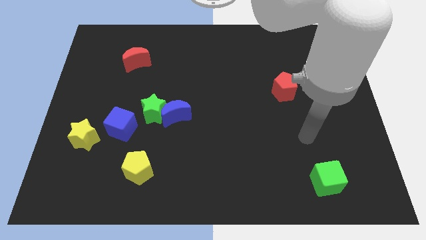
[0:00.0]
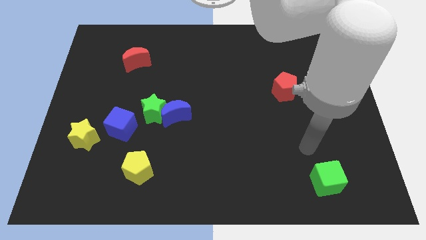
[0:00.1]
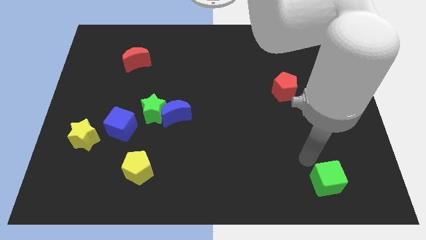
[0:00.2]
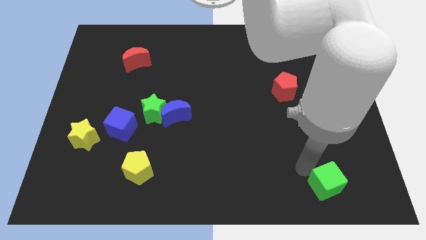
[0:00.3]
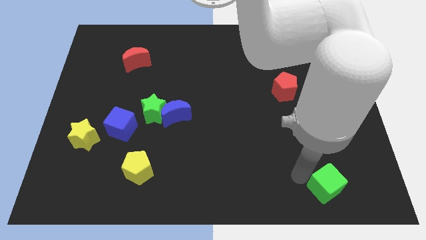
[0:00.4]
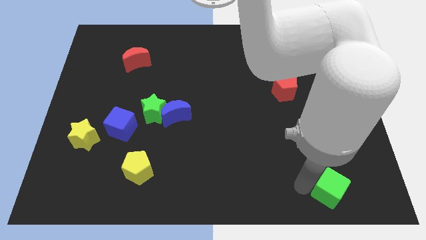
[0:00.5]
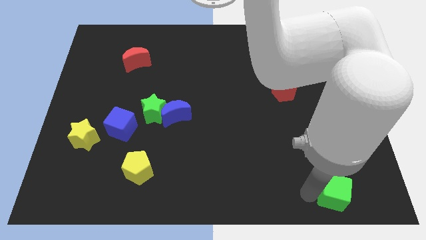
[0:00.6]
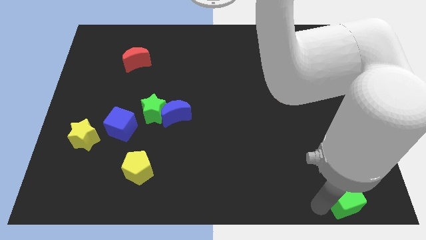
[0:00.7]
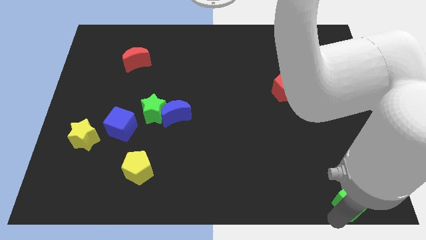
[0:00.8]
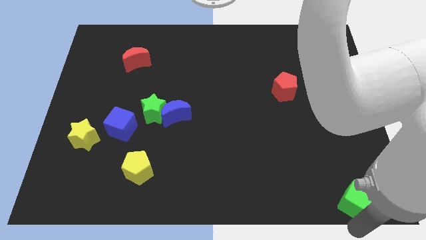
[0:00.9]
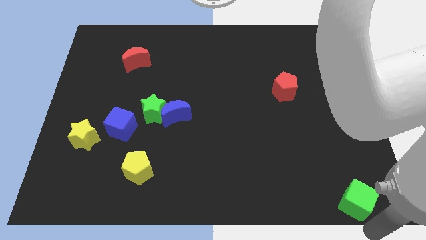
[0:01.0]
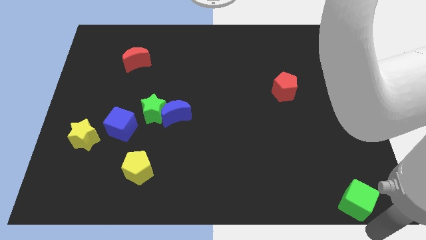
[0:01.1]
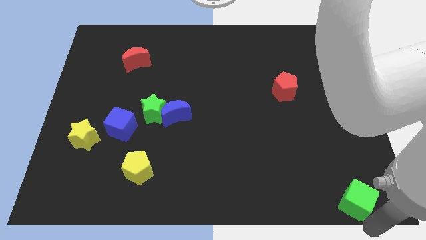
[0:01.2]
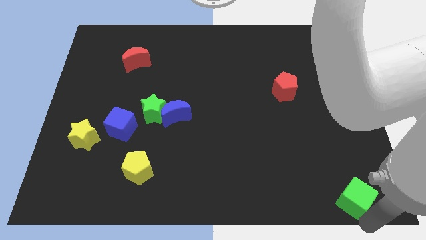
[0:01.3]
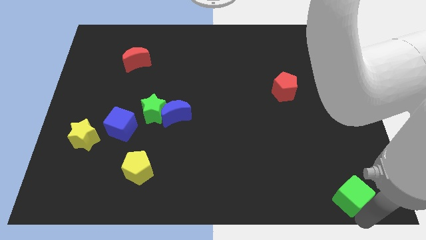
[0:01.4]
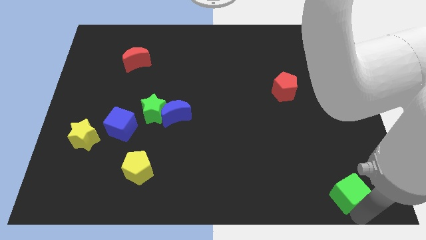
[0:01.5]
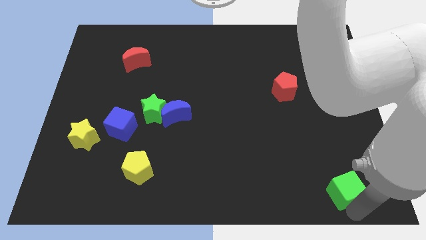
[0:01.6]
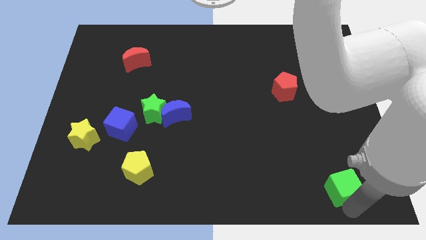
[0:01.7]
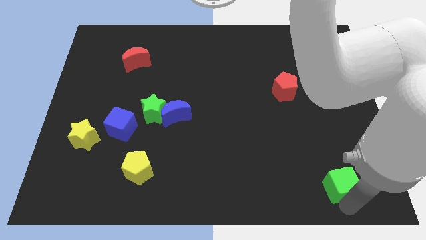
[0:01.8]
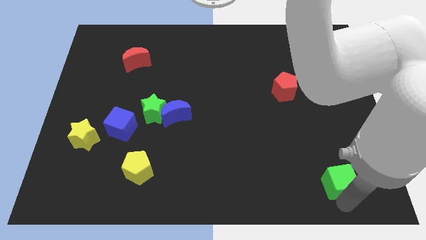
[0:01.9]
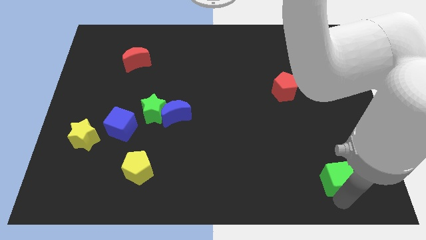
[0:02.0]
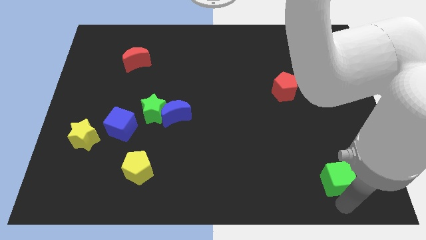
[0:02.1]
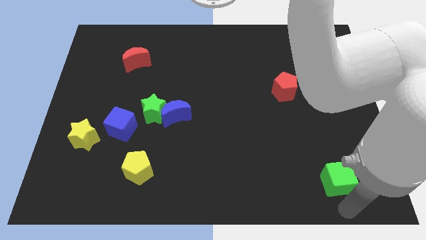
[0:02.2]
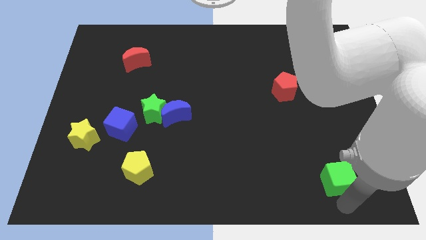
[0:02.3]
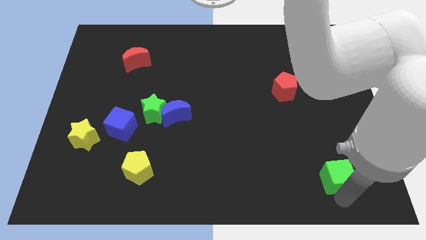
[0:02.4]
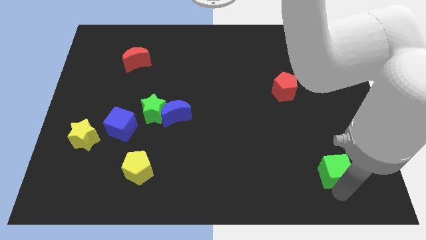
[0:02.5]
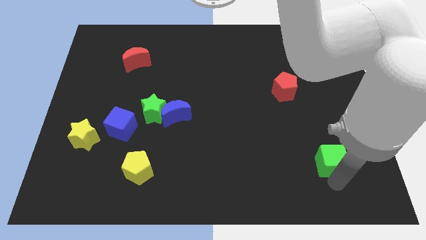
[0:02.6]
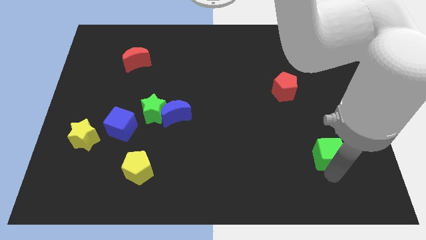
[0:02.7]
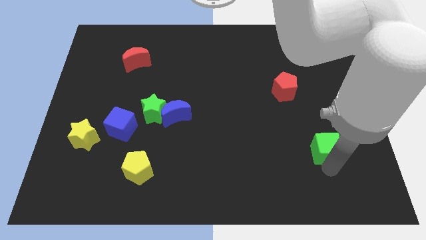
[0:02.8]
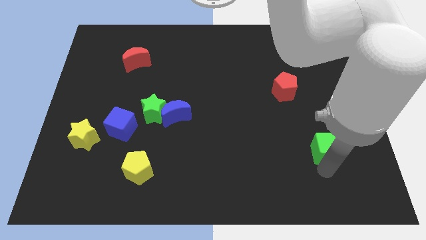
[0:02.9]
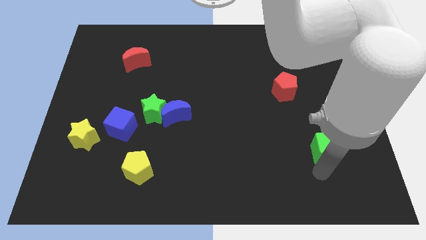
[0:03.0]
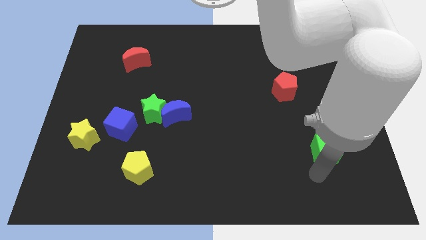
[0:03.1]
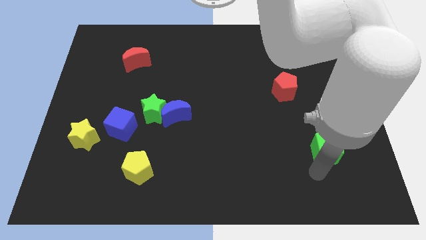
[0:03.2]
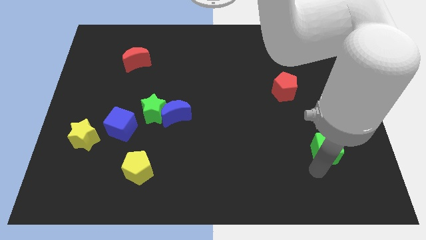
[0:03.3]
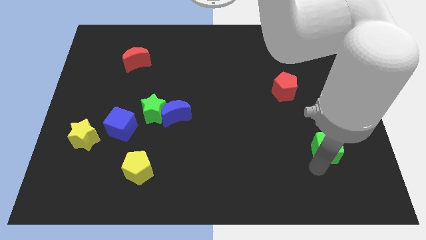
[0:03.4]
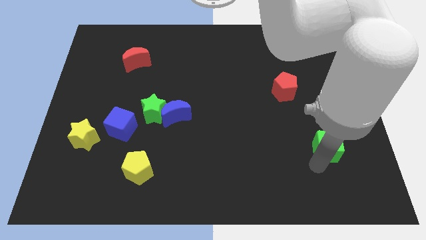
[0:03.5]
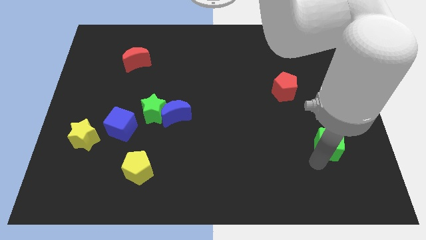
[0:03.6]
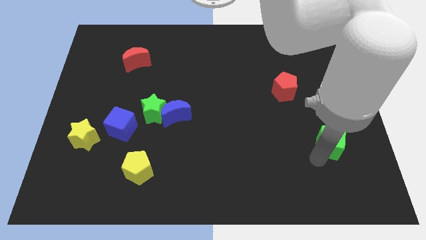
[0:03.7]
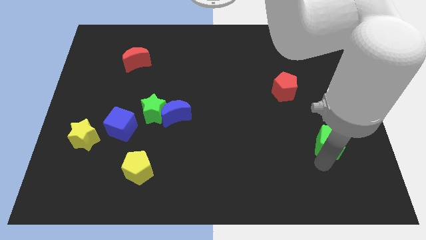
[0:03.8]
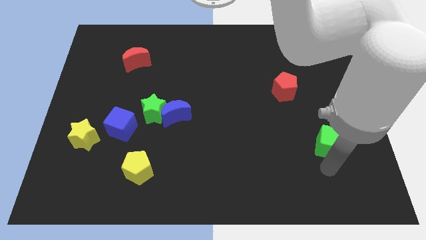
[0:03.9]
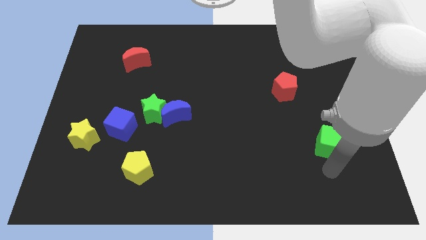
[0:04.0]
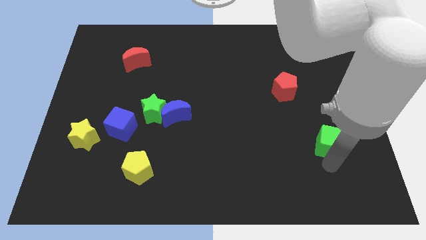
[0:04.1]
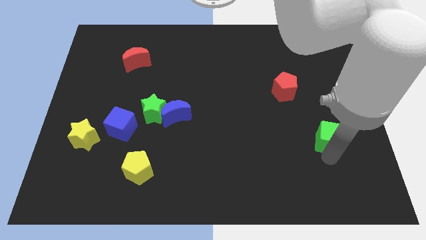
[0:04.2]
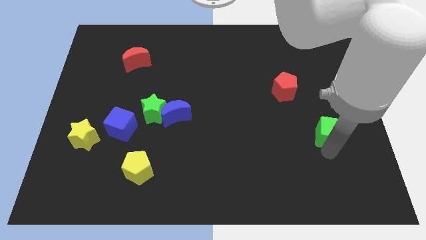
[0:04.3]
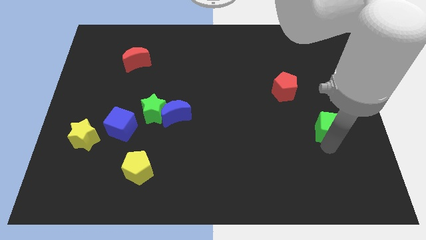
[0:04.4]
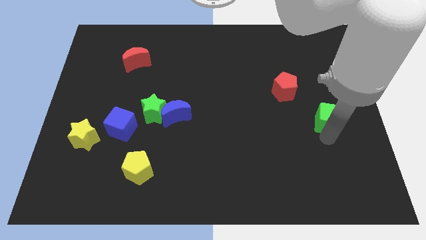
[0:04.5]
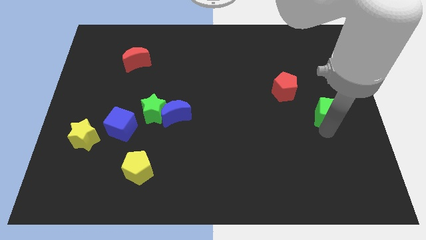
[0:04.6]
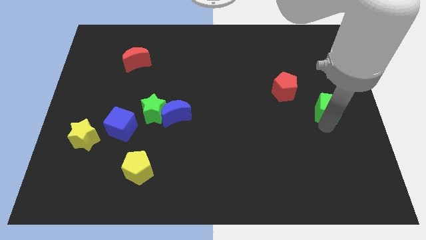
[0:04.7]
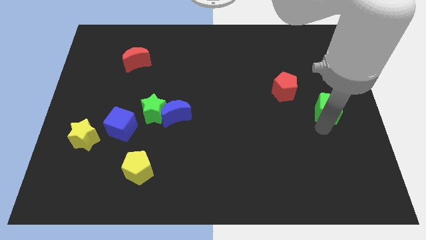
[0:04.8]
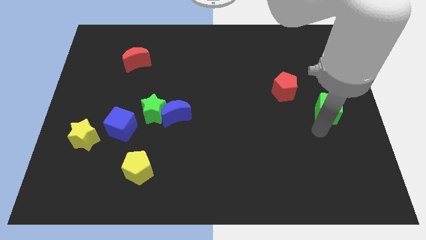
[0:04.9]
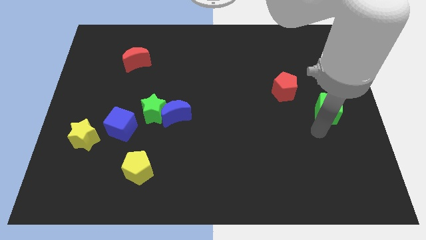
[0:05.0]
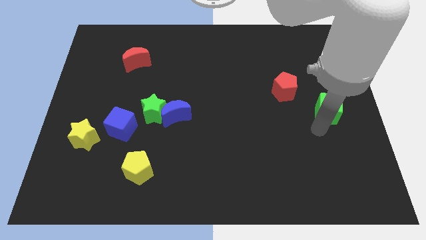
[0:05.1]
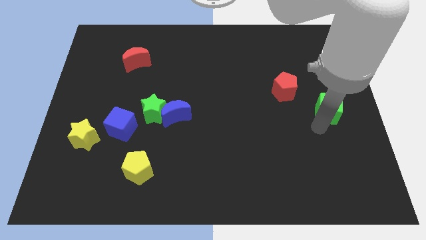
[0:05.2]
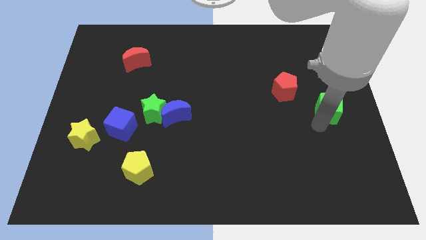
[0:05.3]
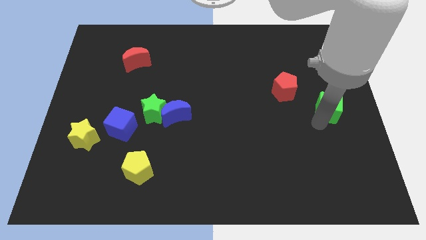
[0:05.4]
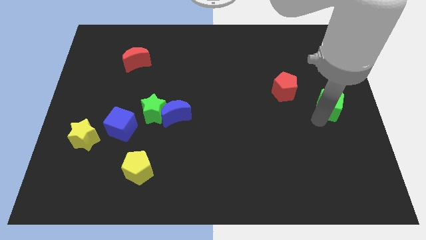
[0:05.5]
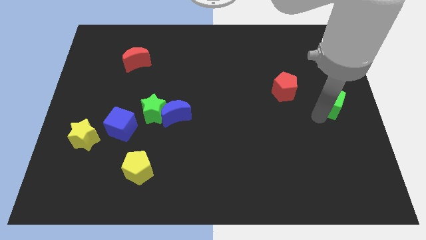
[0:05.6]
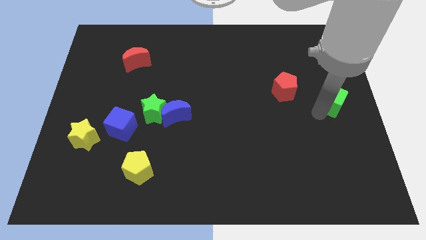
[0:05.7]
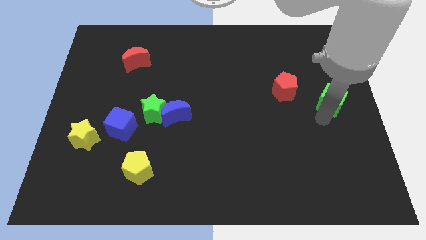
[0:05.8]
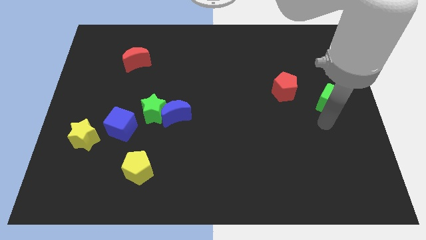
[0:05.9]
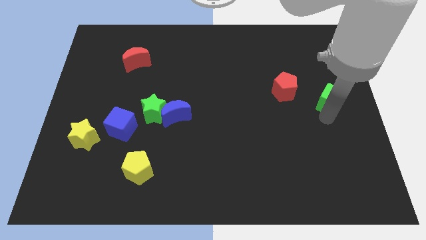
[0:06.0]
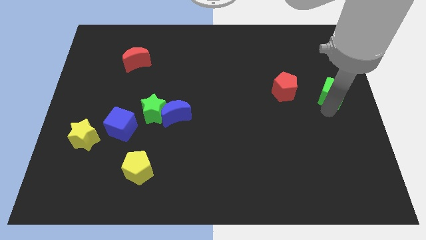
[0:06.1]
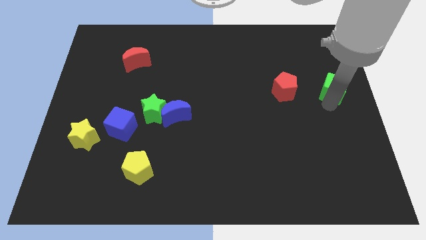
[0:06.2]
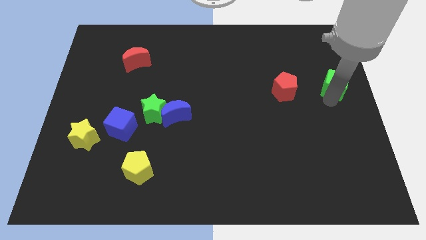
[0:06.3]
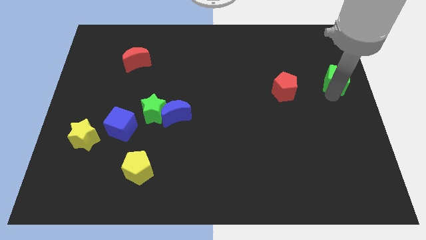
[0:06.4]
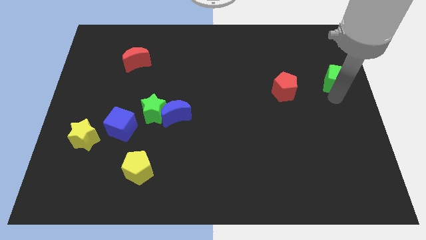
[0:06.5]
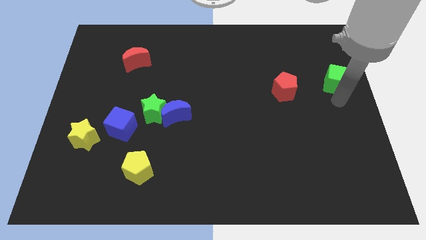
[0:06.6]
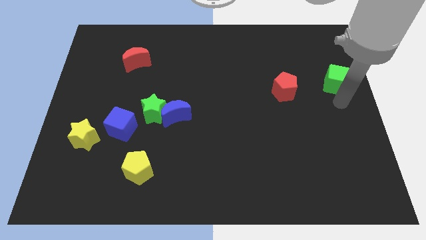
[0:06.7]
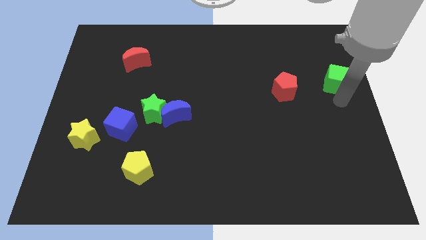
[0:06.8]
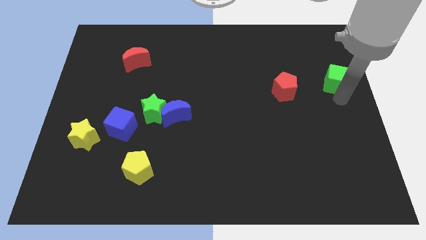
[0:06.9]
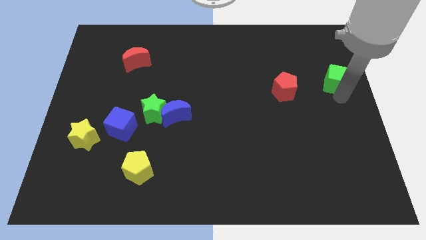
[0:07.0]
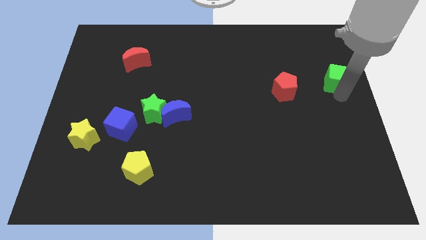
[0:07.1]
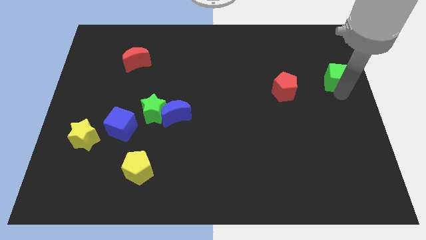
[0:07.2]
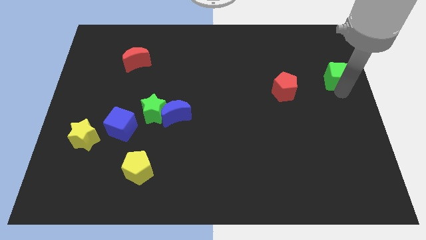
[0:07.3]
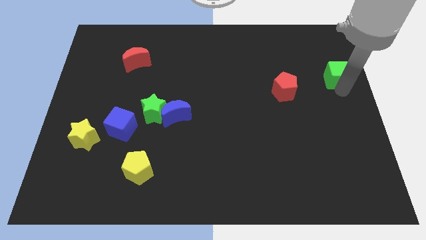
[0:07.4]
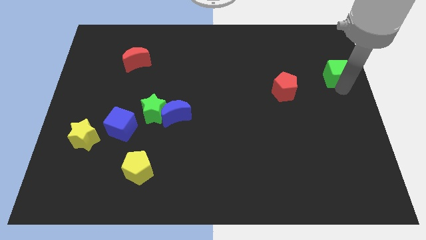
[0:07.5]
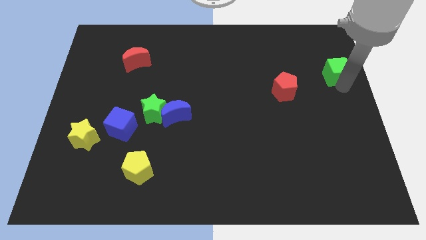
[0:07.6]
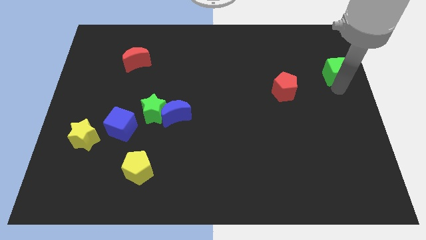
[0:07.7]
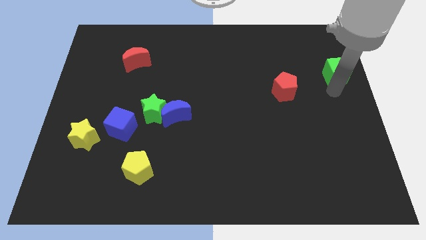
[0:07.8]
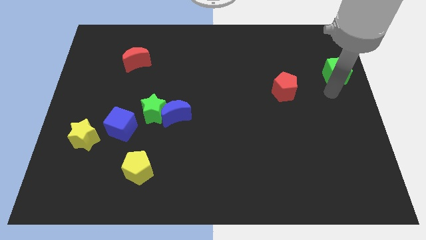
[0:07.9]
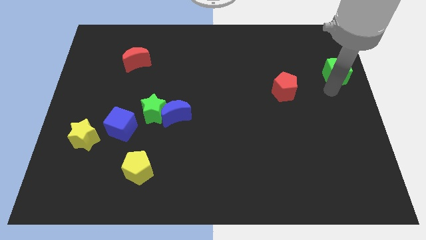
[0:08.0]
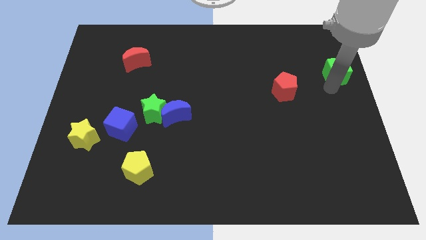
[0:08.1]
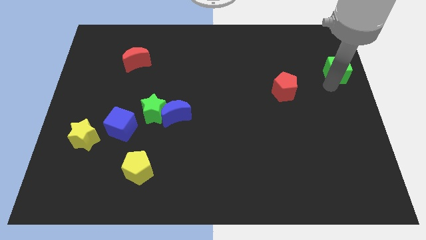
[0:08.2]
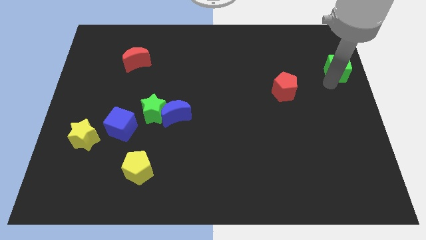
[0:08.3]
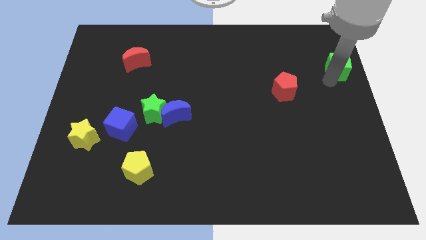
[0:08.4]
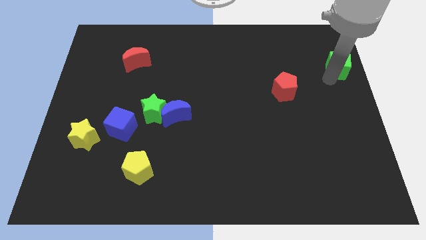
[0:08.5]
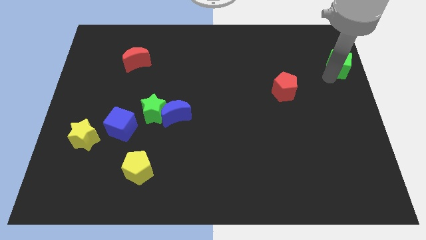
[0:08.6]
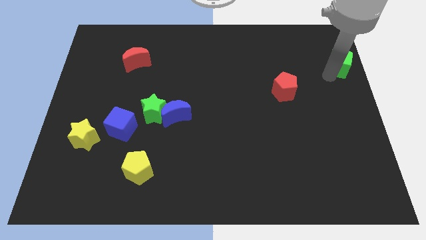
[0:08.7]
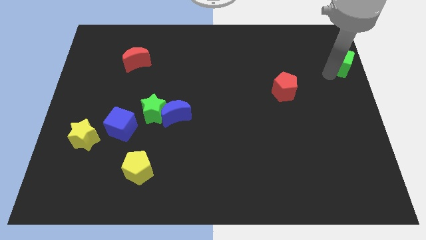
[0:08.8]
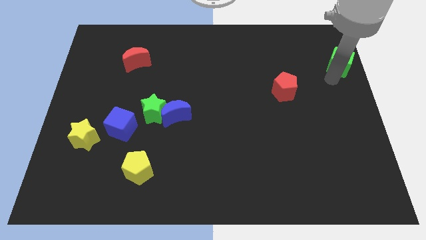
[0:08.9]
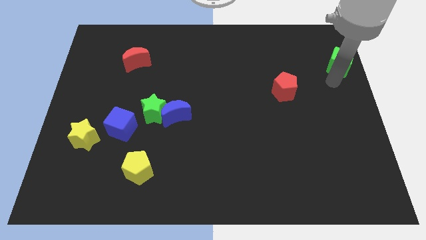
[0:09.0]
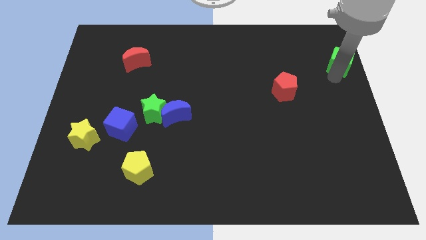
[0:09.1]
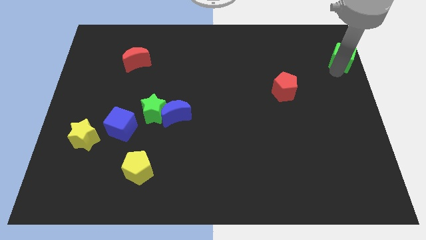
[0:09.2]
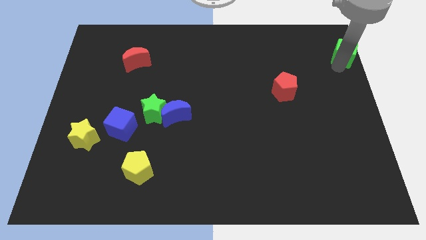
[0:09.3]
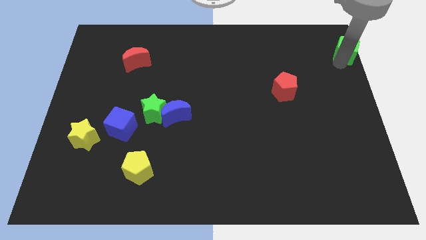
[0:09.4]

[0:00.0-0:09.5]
put the green cube to the upper right corner
